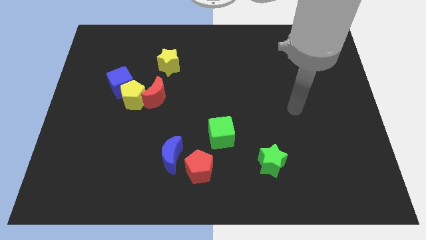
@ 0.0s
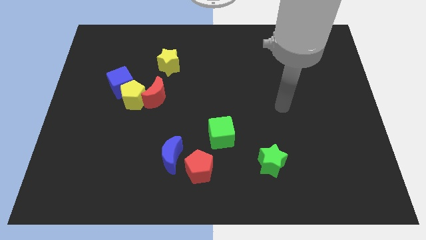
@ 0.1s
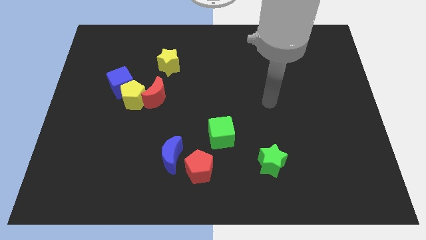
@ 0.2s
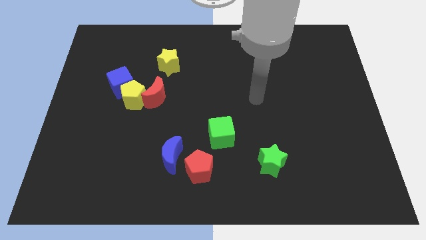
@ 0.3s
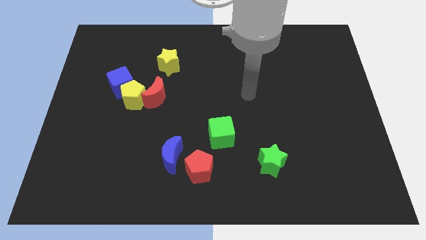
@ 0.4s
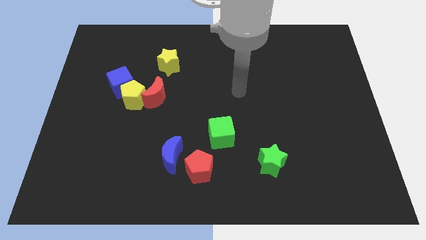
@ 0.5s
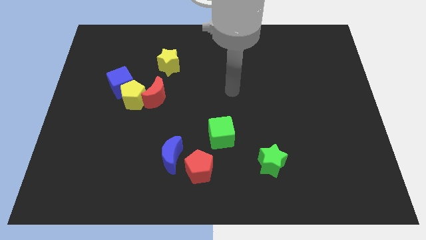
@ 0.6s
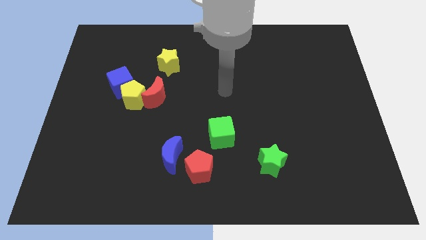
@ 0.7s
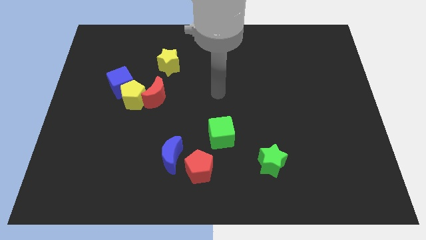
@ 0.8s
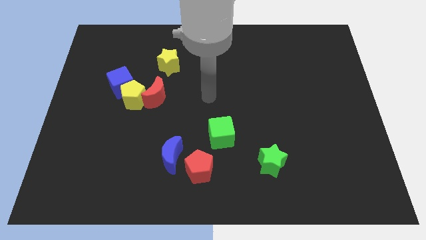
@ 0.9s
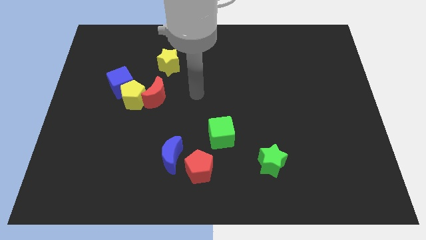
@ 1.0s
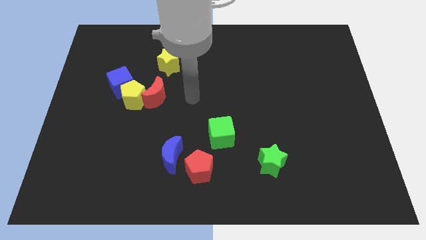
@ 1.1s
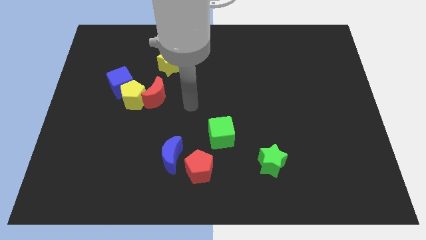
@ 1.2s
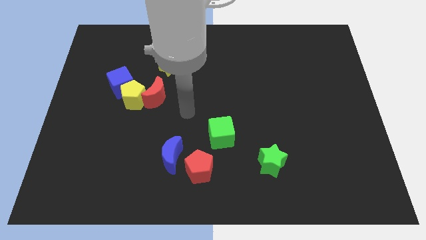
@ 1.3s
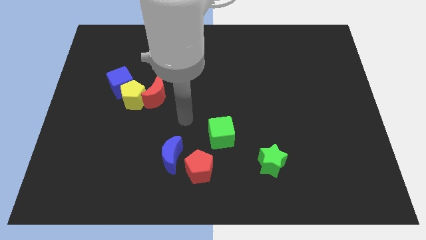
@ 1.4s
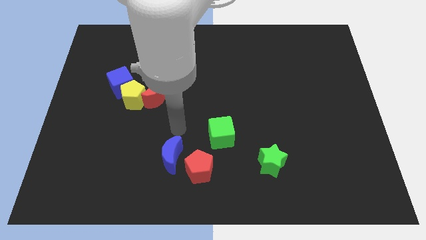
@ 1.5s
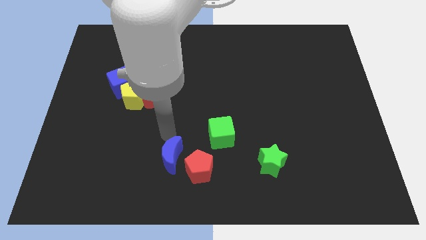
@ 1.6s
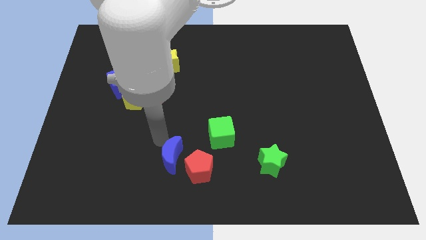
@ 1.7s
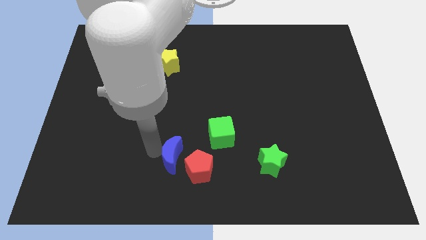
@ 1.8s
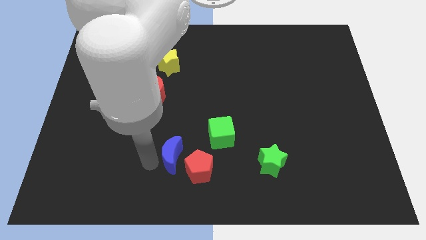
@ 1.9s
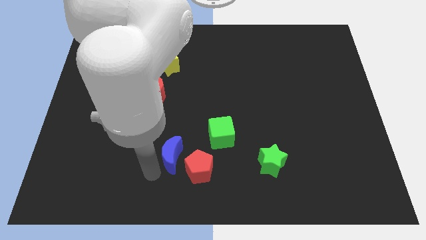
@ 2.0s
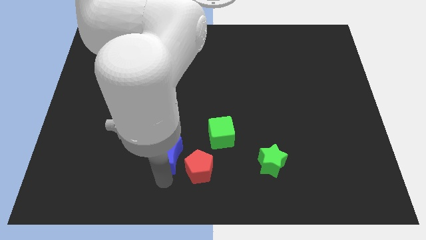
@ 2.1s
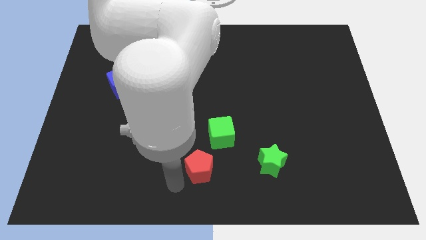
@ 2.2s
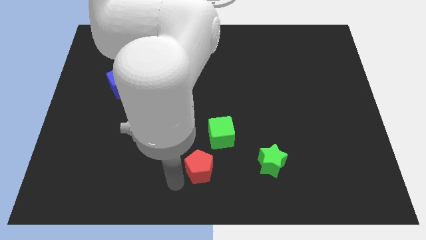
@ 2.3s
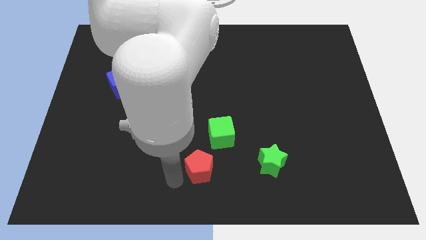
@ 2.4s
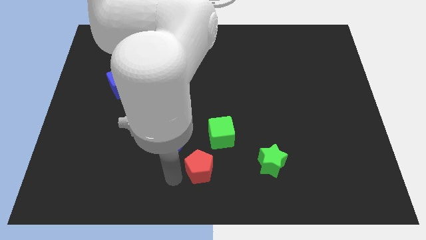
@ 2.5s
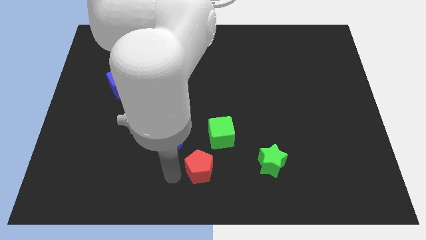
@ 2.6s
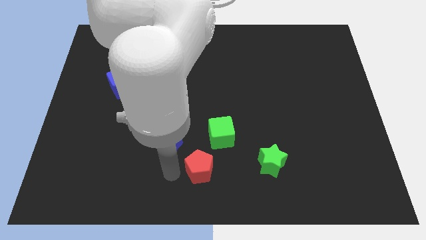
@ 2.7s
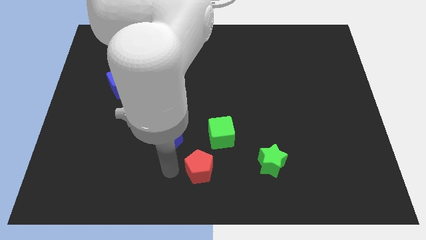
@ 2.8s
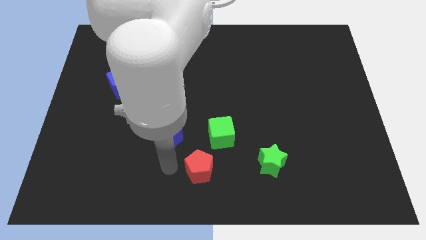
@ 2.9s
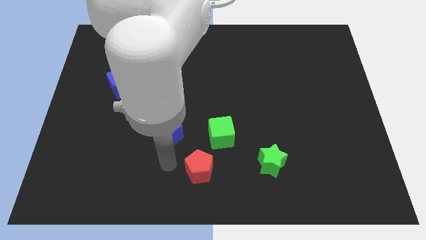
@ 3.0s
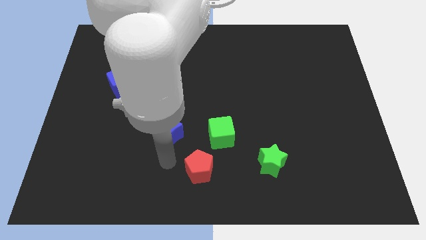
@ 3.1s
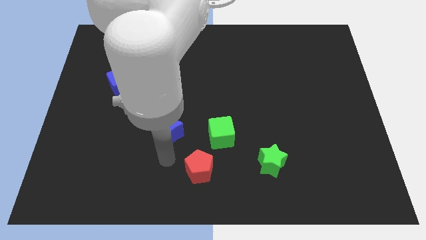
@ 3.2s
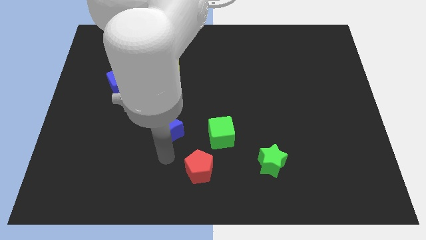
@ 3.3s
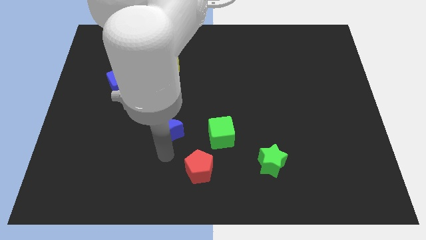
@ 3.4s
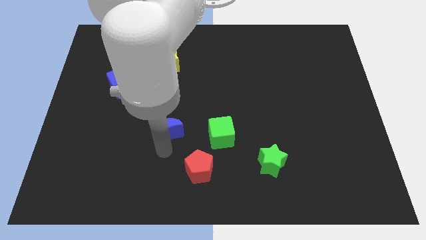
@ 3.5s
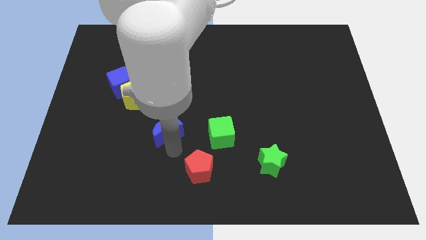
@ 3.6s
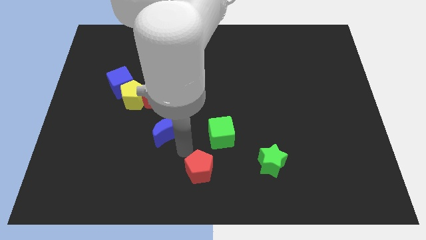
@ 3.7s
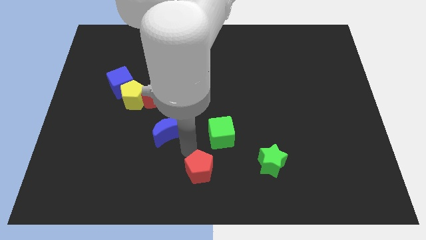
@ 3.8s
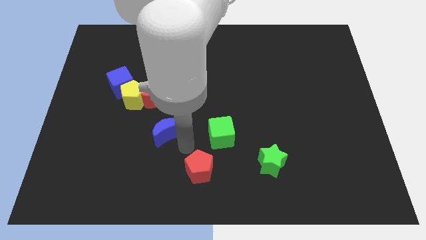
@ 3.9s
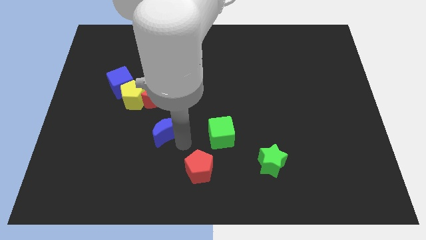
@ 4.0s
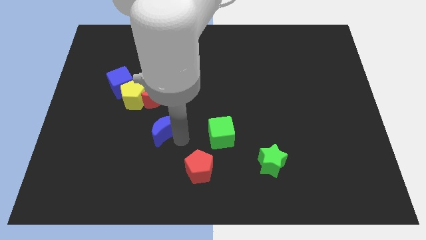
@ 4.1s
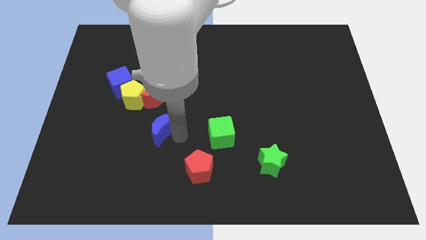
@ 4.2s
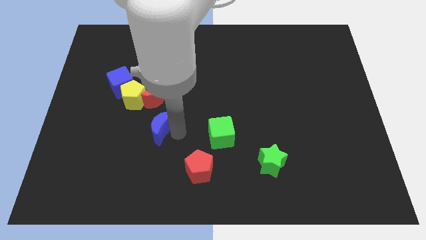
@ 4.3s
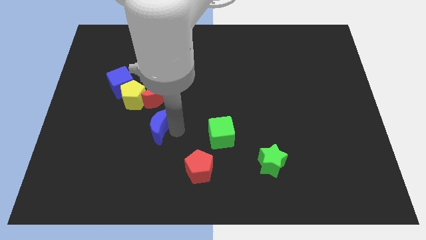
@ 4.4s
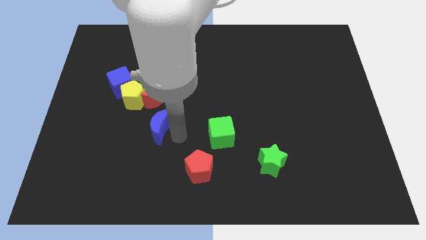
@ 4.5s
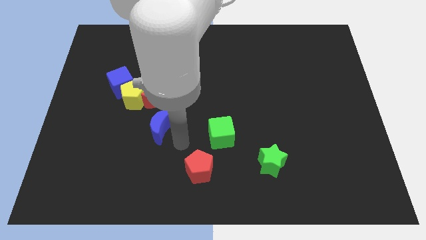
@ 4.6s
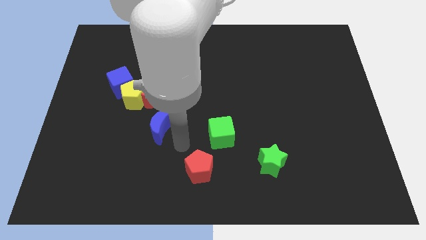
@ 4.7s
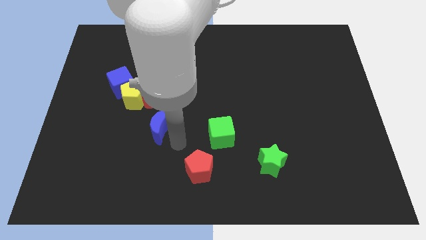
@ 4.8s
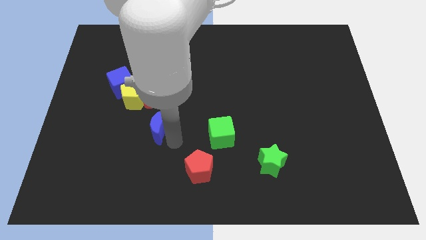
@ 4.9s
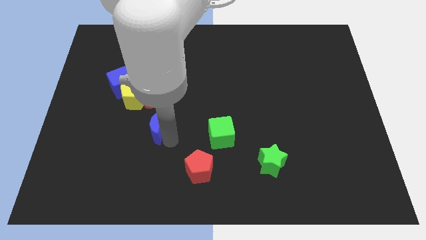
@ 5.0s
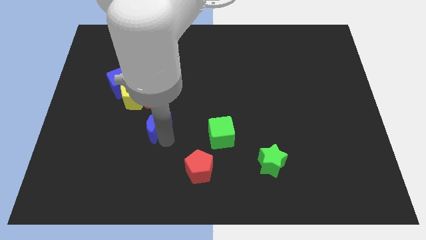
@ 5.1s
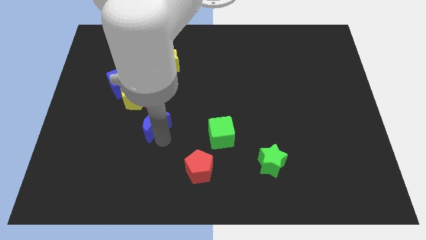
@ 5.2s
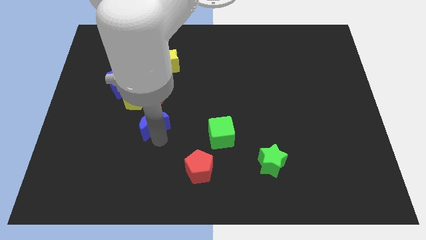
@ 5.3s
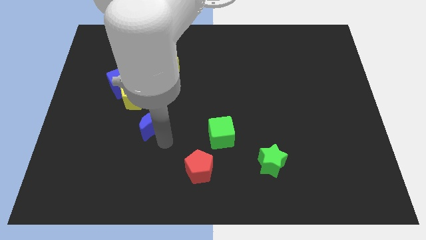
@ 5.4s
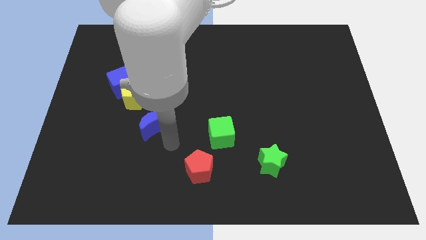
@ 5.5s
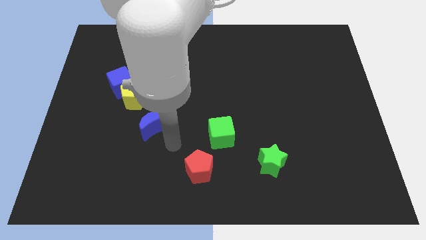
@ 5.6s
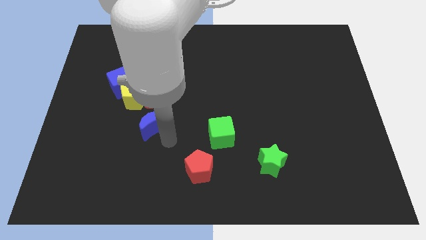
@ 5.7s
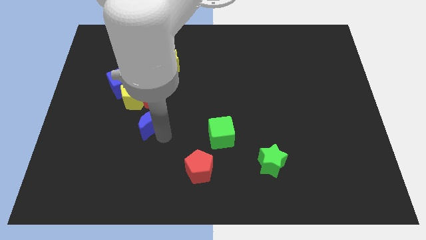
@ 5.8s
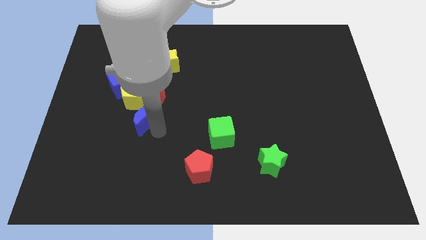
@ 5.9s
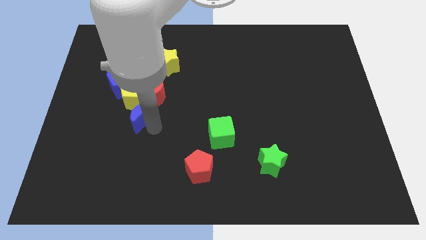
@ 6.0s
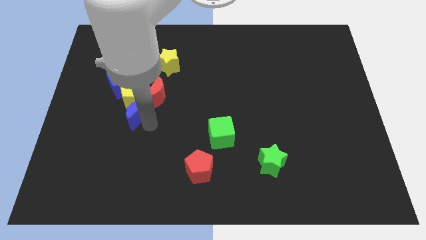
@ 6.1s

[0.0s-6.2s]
push the blue moon close to the yellow pentagon

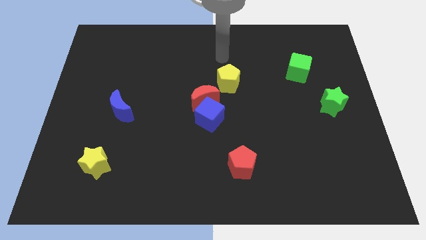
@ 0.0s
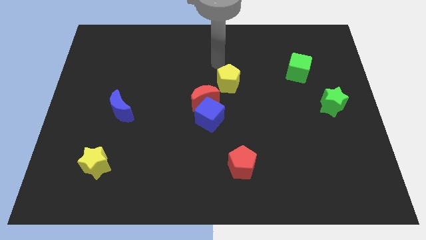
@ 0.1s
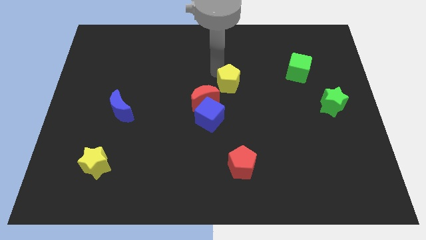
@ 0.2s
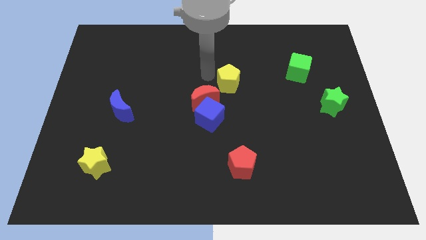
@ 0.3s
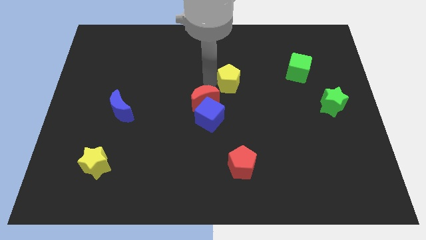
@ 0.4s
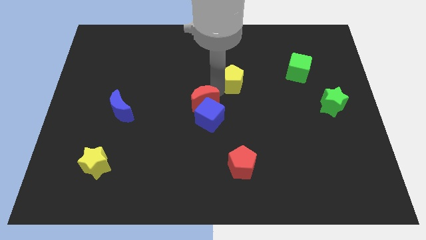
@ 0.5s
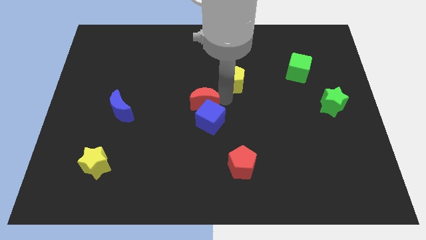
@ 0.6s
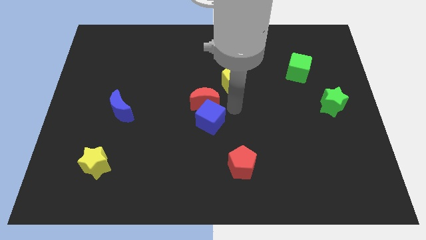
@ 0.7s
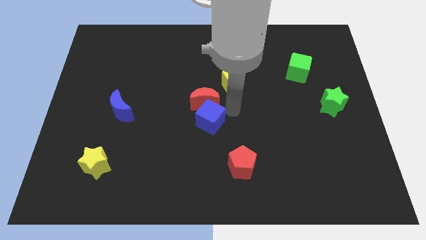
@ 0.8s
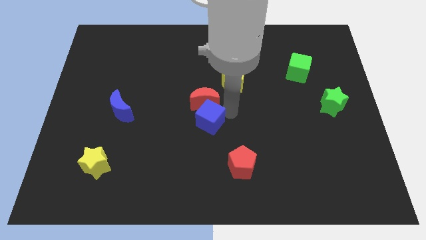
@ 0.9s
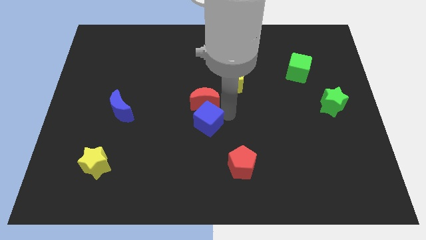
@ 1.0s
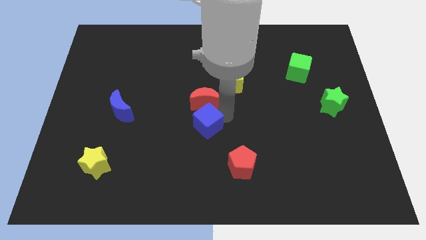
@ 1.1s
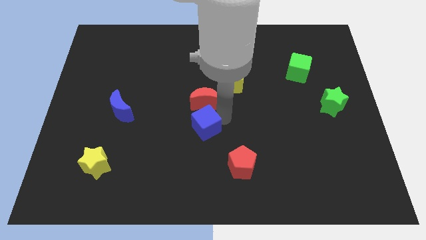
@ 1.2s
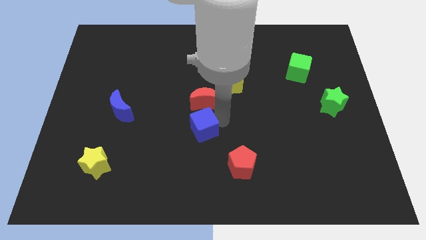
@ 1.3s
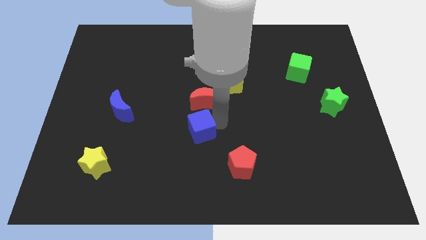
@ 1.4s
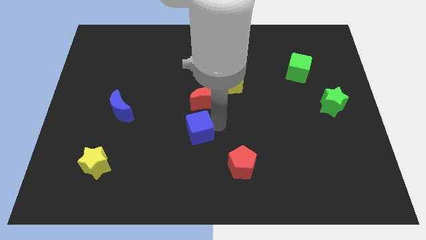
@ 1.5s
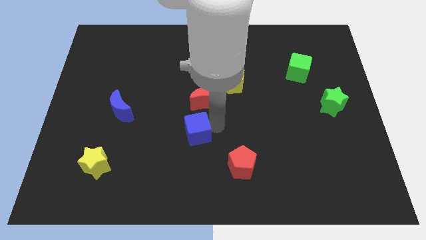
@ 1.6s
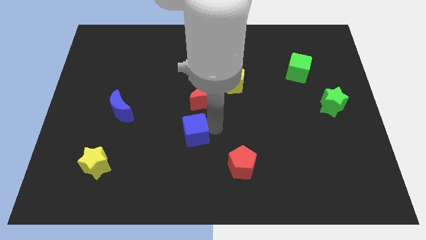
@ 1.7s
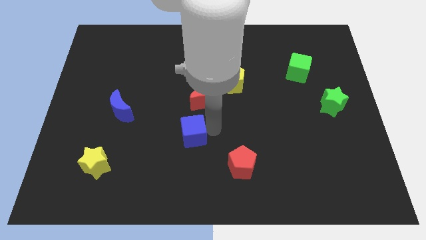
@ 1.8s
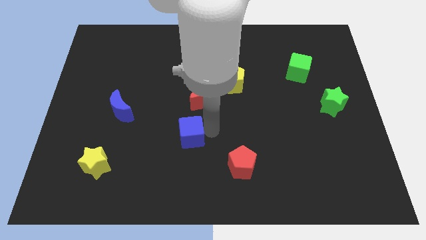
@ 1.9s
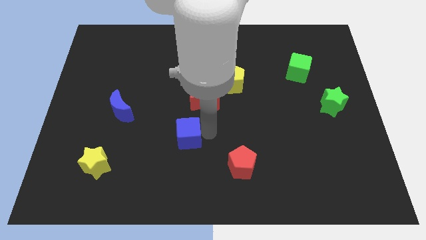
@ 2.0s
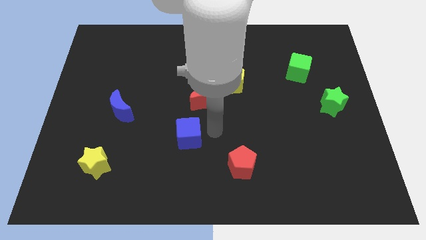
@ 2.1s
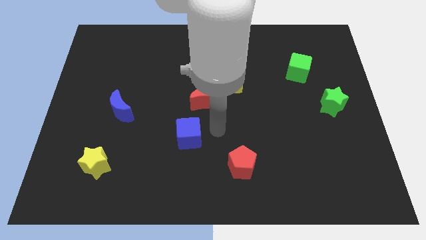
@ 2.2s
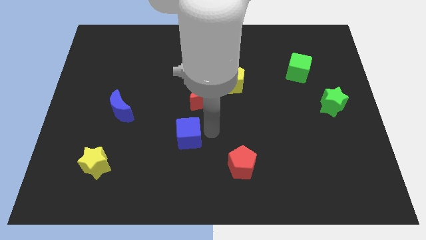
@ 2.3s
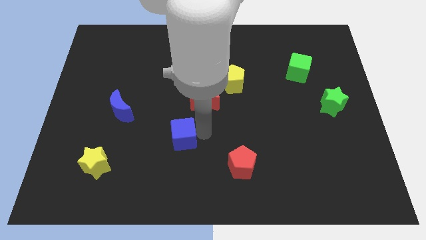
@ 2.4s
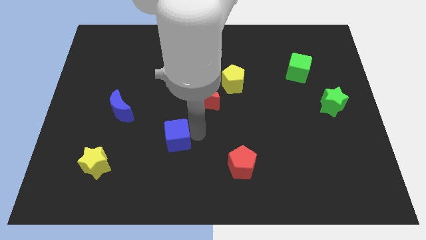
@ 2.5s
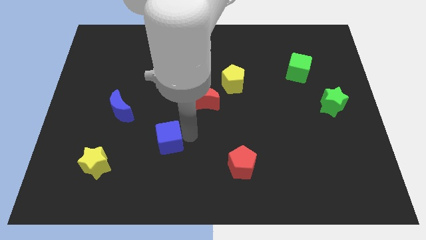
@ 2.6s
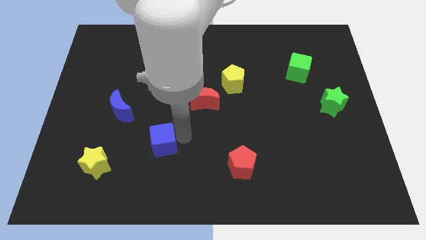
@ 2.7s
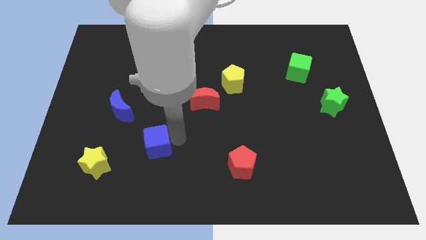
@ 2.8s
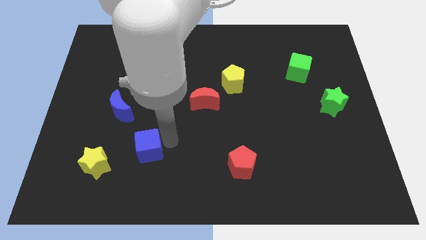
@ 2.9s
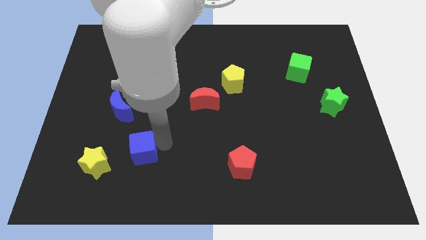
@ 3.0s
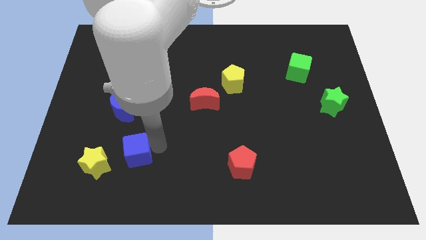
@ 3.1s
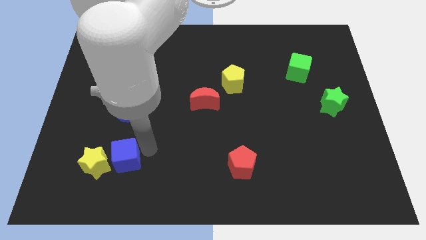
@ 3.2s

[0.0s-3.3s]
move the blue cube next to the yellow star
